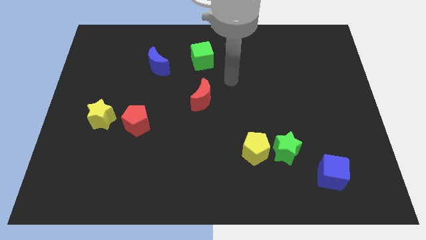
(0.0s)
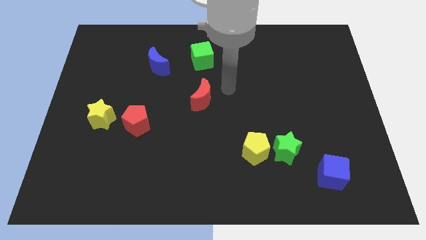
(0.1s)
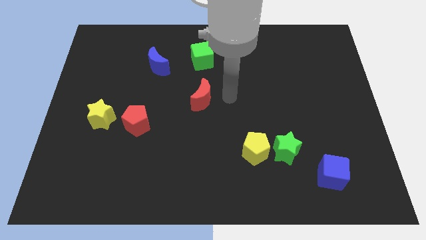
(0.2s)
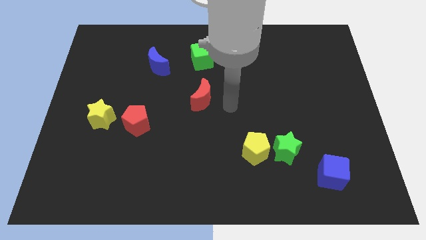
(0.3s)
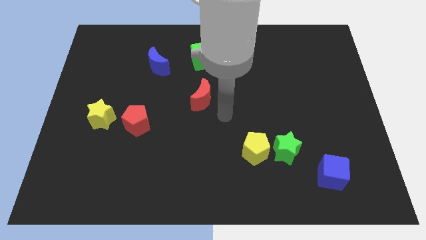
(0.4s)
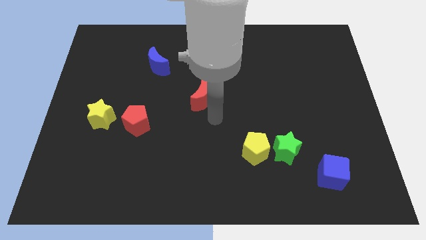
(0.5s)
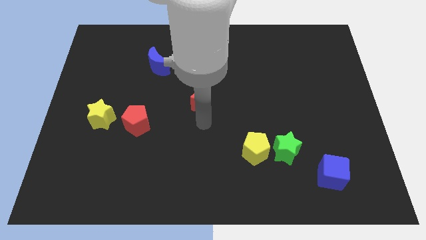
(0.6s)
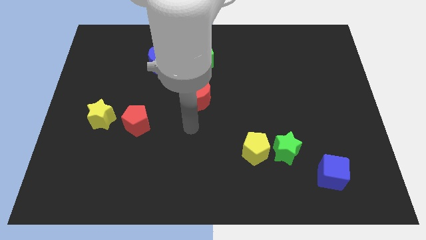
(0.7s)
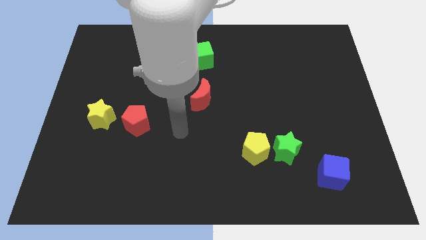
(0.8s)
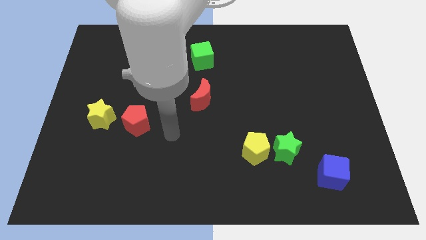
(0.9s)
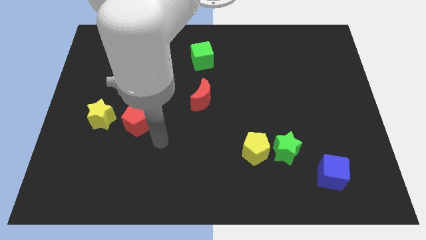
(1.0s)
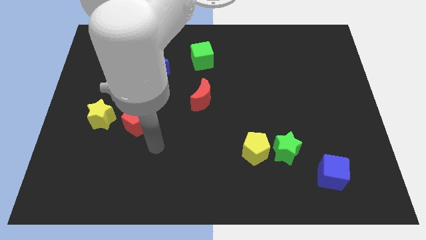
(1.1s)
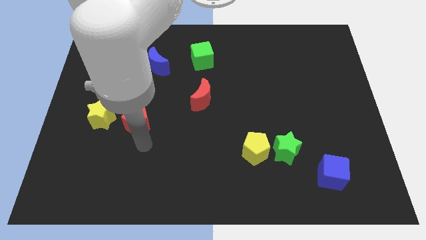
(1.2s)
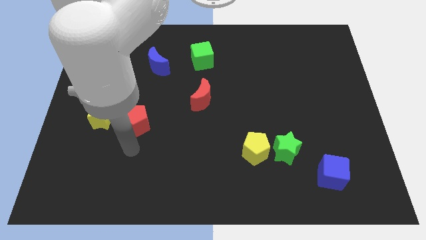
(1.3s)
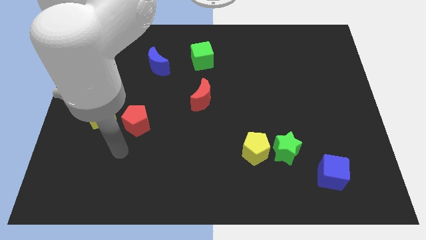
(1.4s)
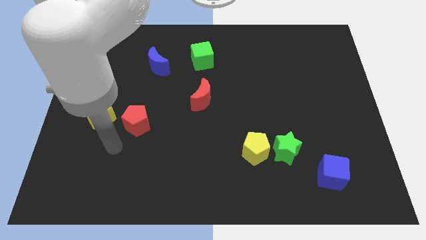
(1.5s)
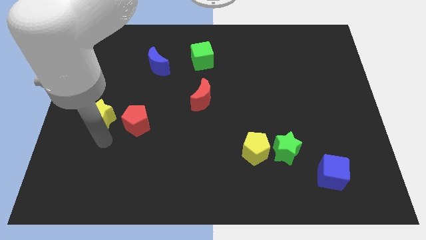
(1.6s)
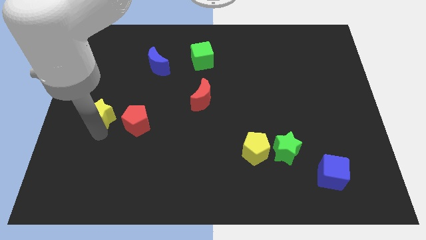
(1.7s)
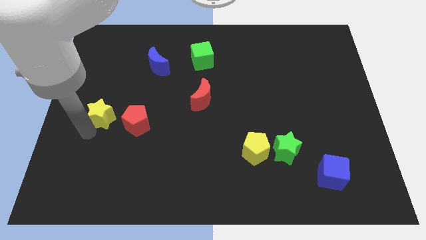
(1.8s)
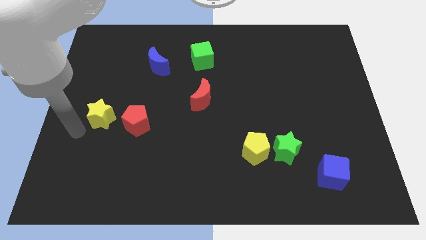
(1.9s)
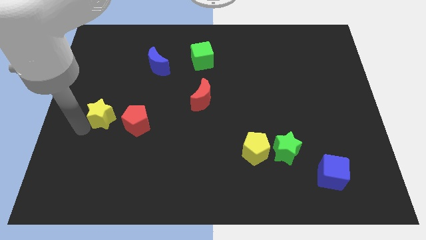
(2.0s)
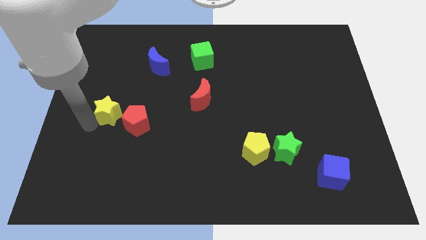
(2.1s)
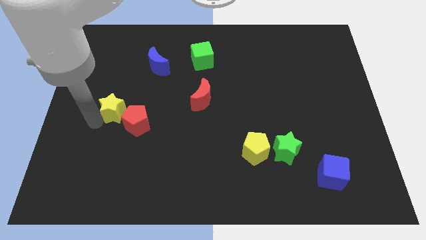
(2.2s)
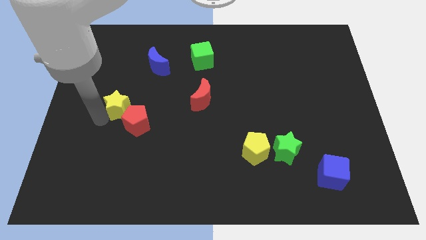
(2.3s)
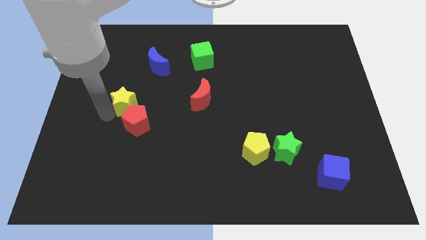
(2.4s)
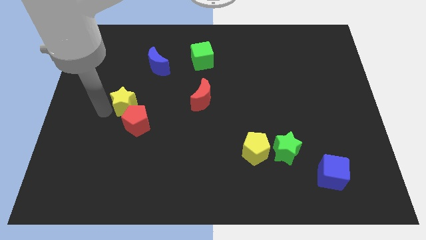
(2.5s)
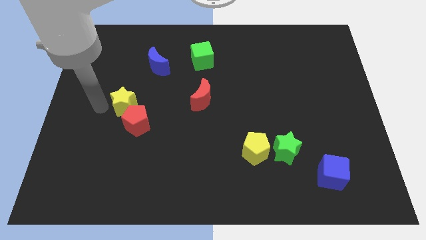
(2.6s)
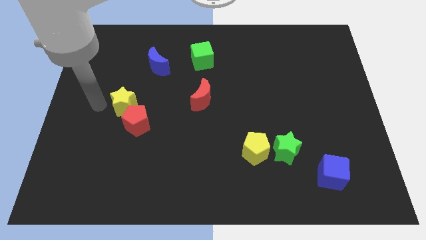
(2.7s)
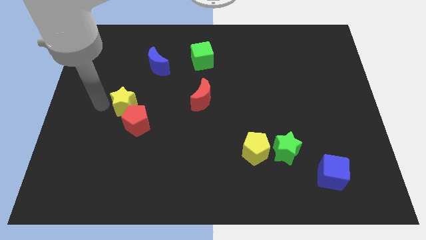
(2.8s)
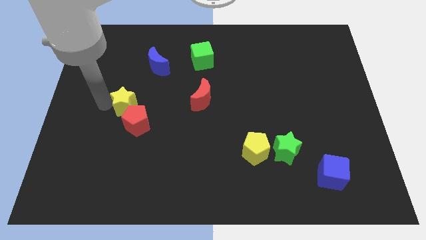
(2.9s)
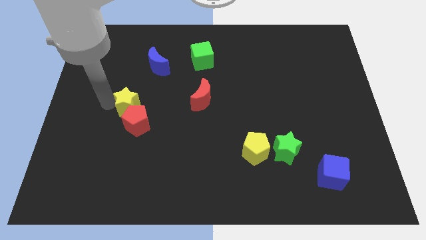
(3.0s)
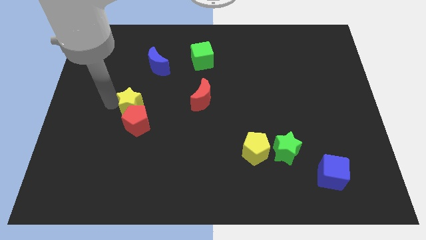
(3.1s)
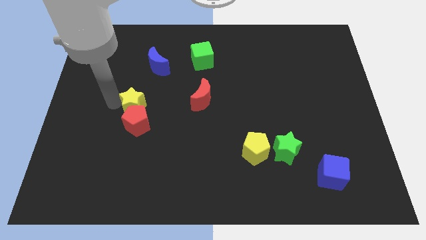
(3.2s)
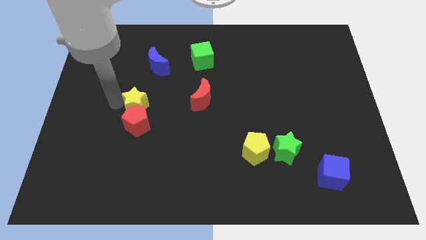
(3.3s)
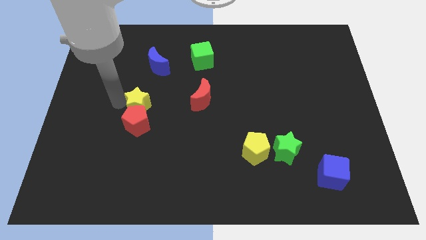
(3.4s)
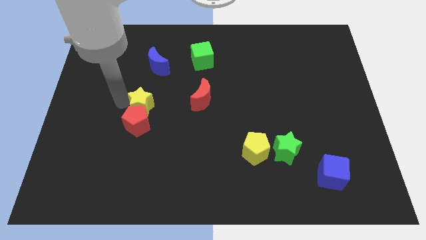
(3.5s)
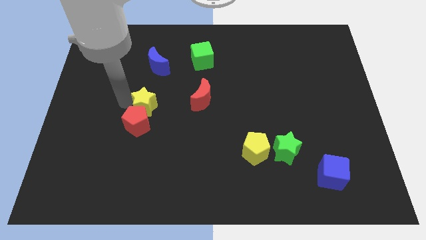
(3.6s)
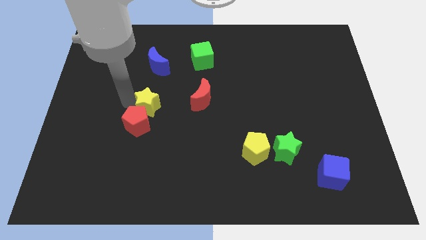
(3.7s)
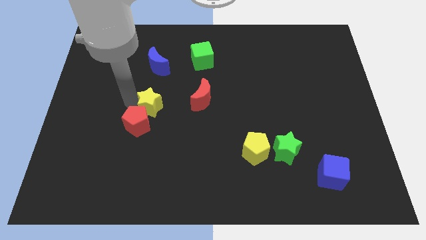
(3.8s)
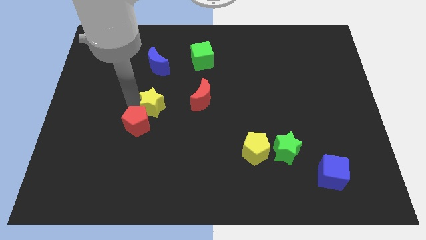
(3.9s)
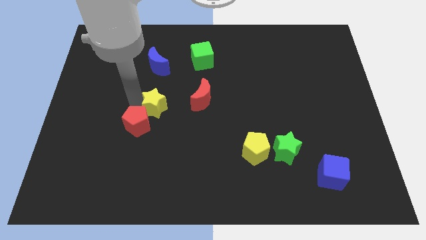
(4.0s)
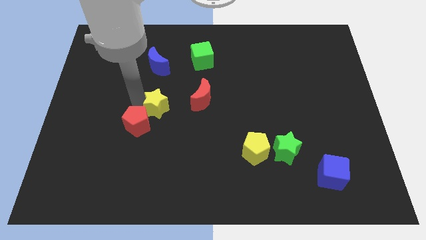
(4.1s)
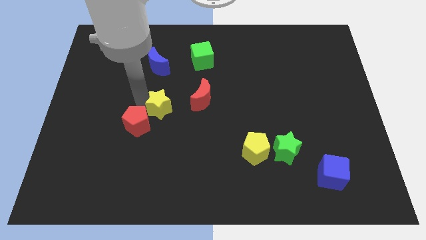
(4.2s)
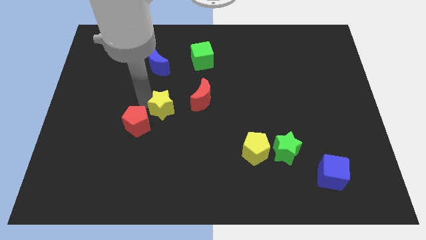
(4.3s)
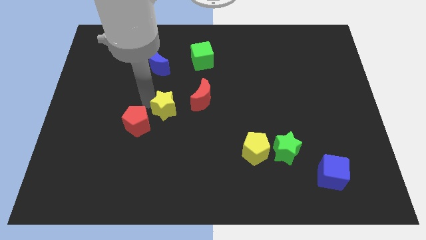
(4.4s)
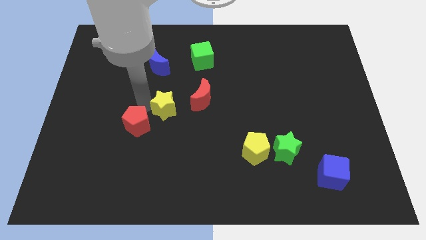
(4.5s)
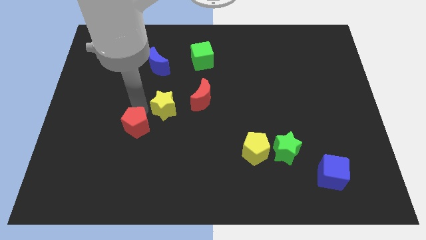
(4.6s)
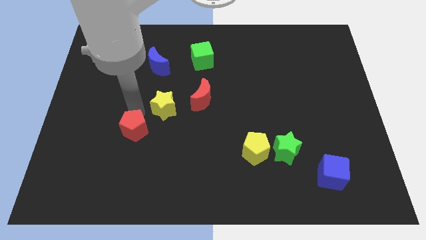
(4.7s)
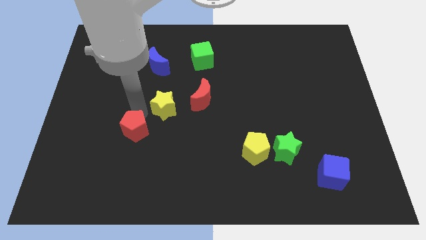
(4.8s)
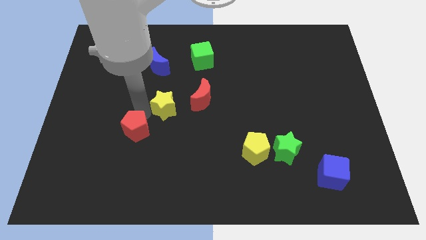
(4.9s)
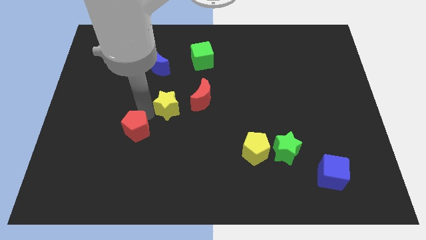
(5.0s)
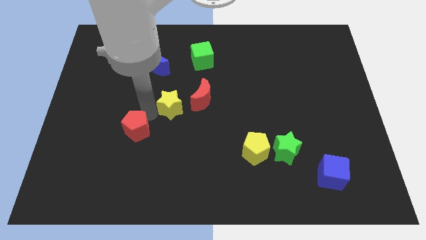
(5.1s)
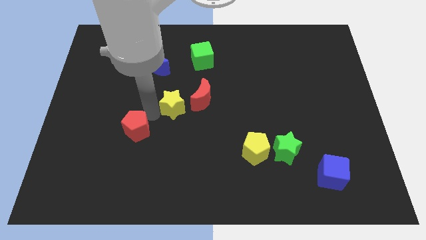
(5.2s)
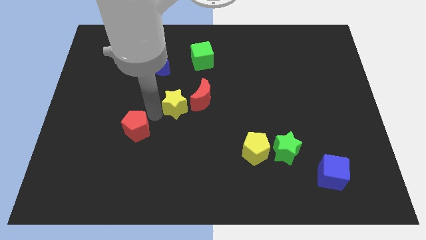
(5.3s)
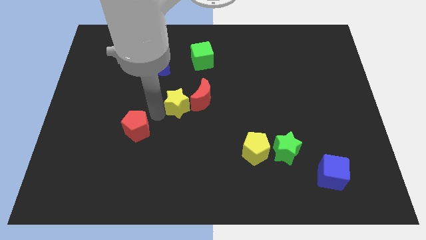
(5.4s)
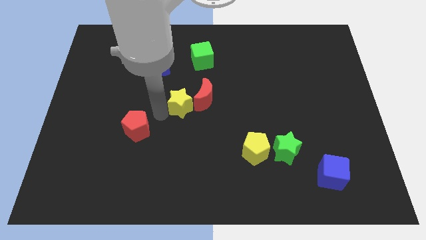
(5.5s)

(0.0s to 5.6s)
move the yellow star to the red moon

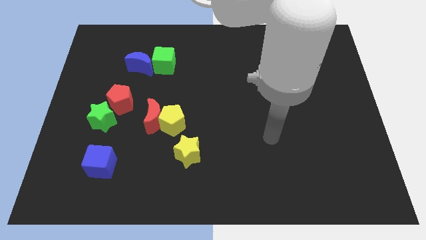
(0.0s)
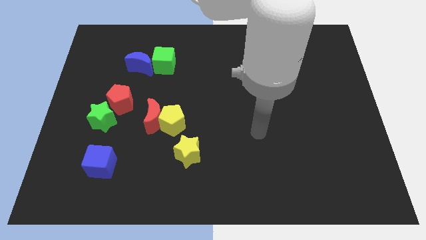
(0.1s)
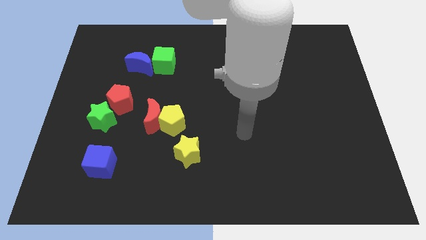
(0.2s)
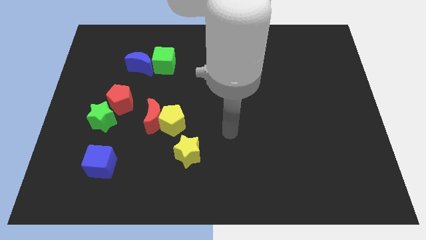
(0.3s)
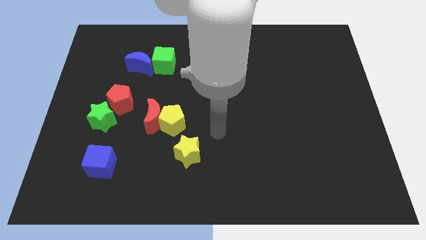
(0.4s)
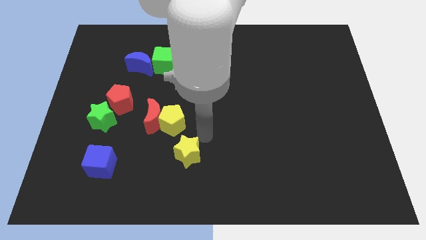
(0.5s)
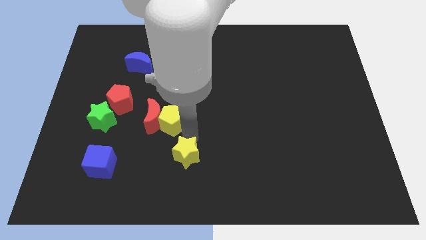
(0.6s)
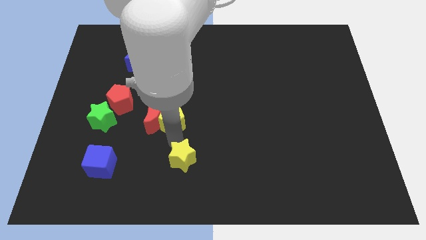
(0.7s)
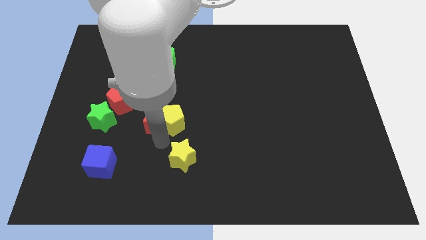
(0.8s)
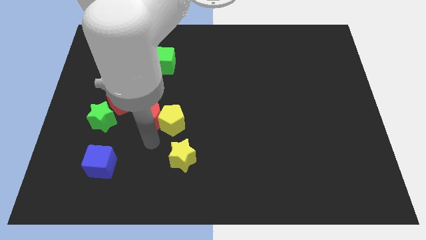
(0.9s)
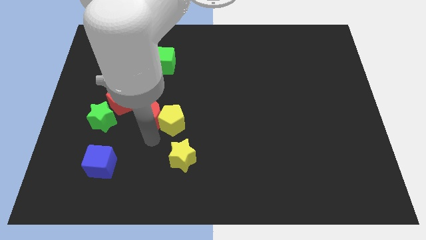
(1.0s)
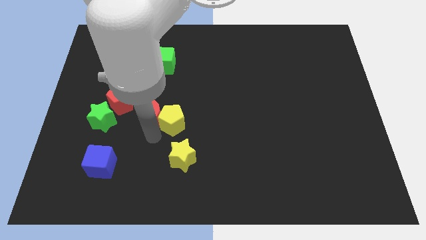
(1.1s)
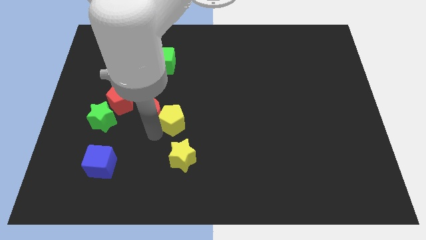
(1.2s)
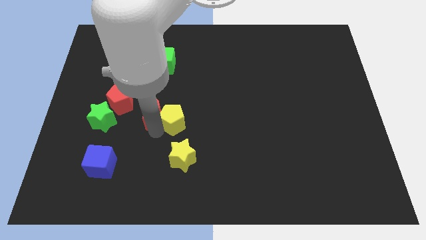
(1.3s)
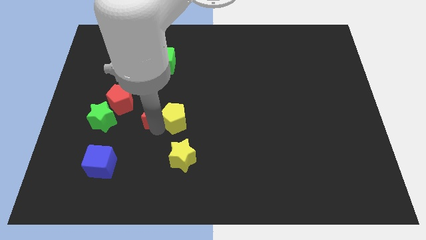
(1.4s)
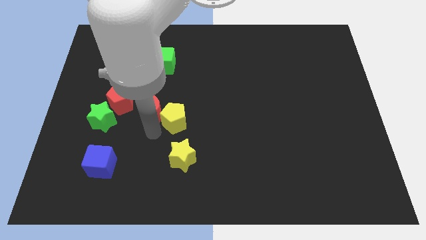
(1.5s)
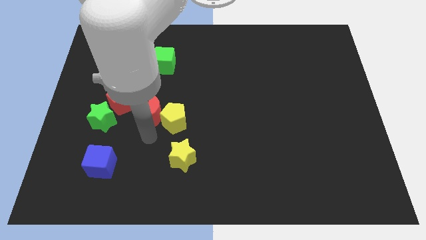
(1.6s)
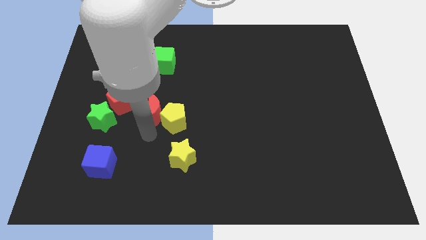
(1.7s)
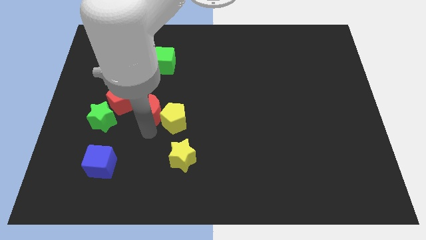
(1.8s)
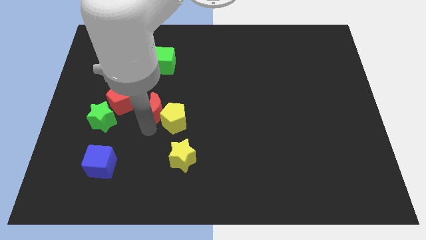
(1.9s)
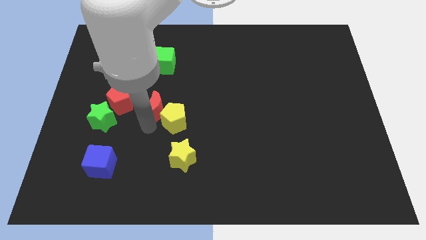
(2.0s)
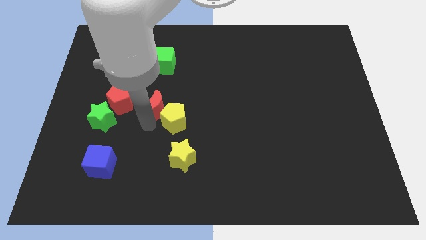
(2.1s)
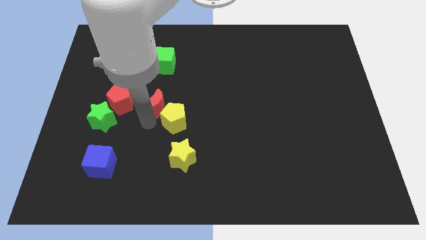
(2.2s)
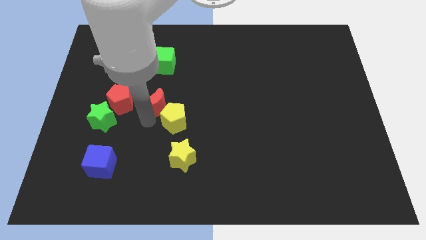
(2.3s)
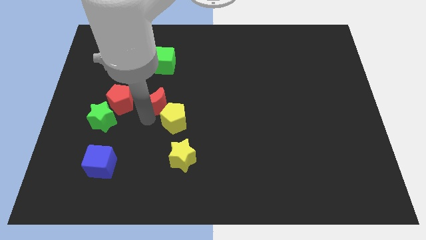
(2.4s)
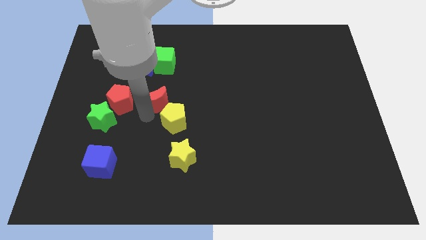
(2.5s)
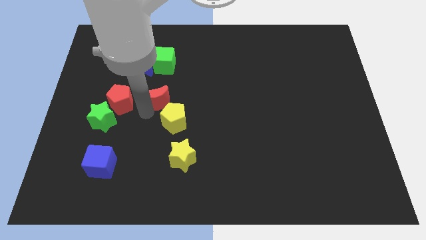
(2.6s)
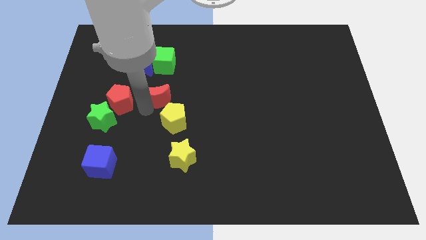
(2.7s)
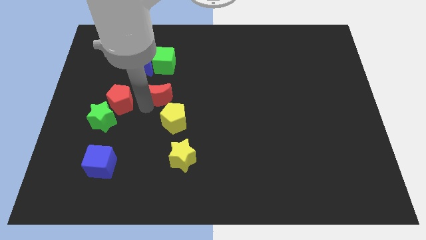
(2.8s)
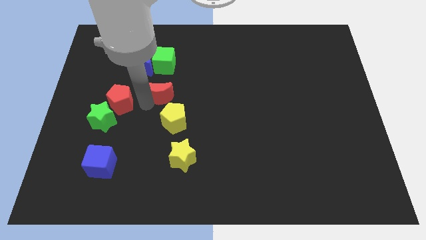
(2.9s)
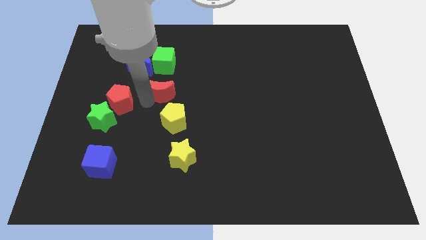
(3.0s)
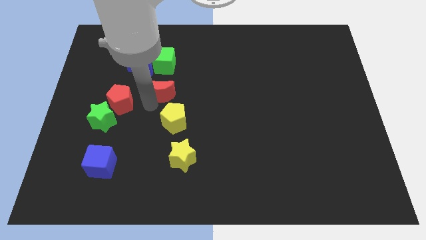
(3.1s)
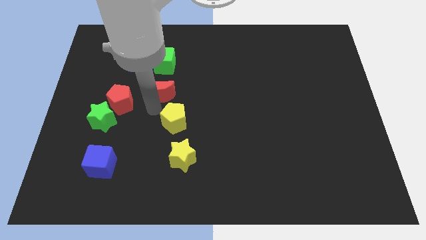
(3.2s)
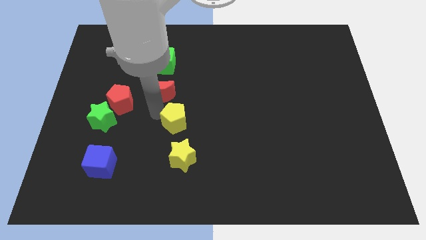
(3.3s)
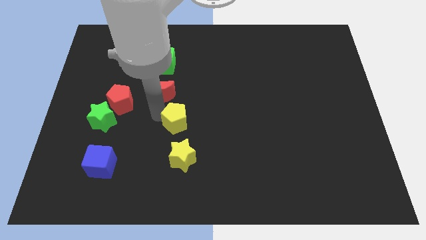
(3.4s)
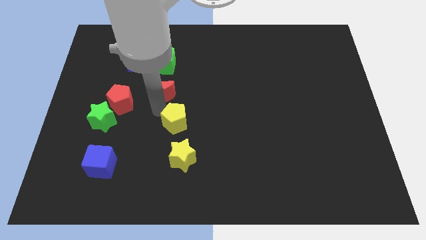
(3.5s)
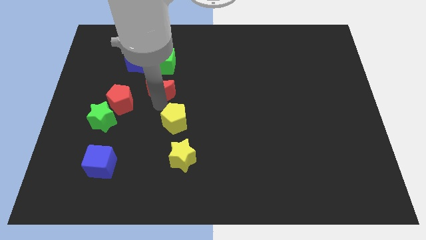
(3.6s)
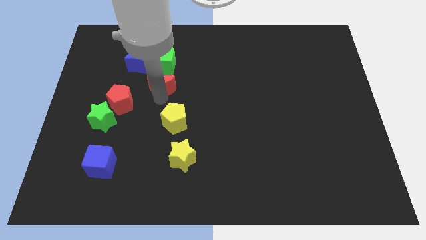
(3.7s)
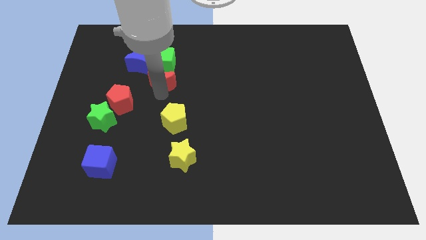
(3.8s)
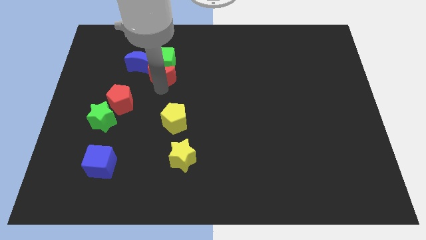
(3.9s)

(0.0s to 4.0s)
put the red moon close to the green cube
